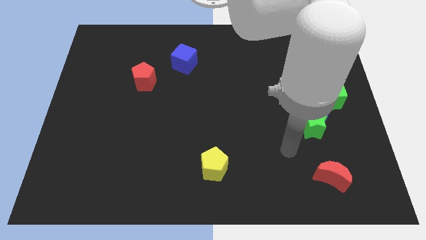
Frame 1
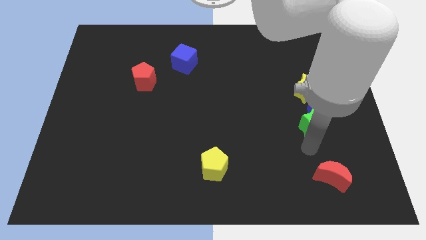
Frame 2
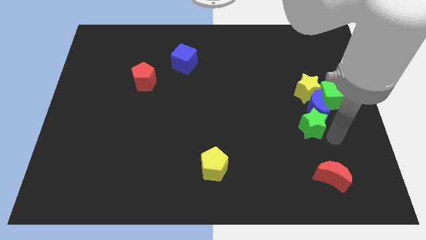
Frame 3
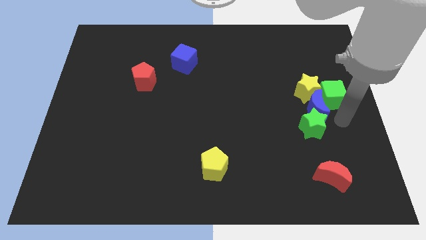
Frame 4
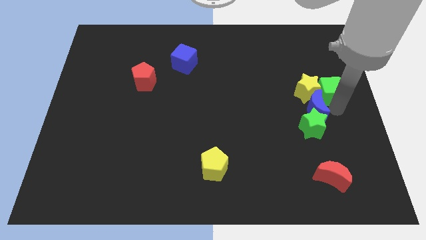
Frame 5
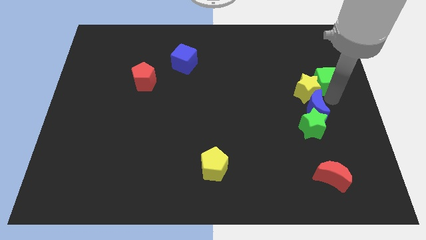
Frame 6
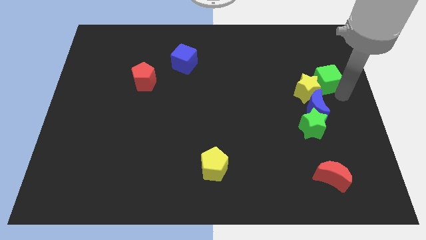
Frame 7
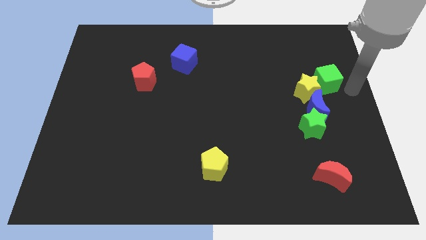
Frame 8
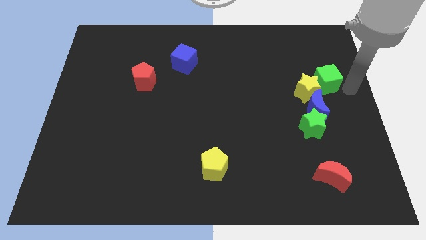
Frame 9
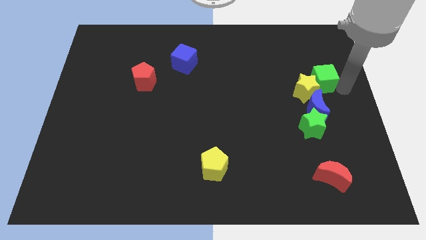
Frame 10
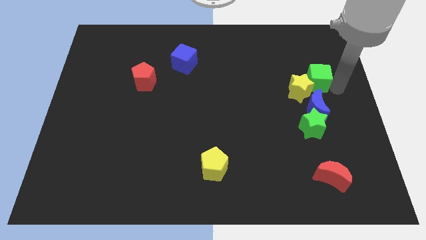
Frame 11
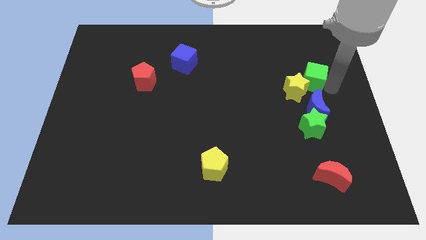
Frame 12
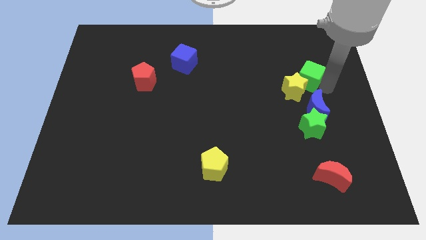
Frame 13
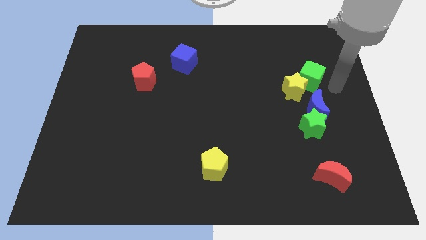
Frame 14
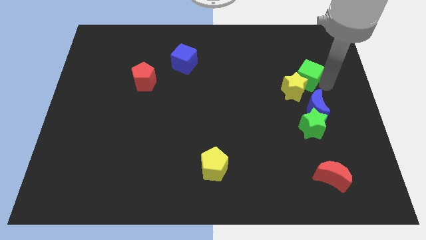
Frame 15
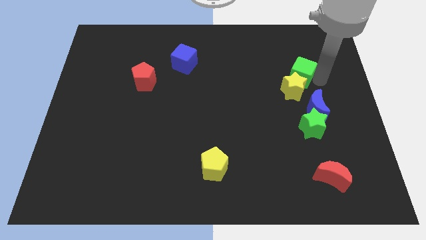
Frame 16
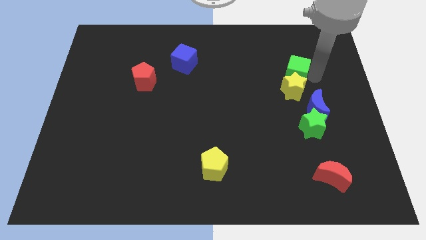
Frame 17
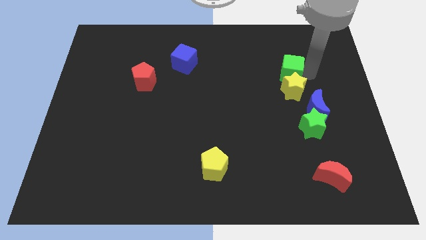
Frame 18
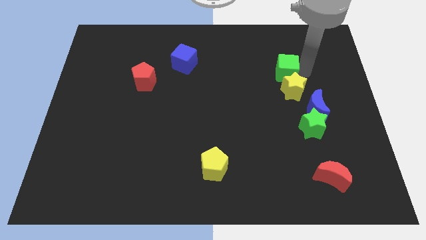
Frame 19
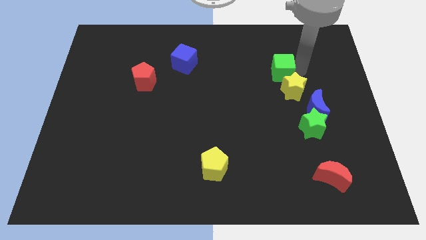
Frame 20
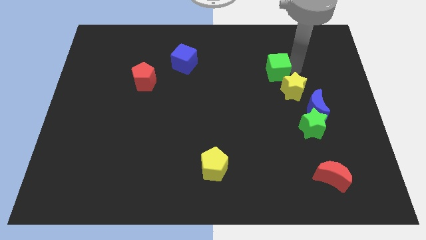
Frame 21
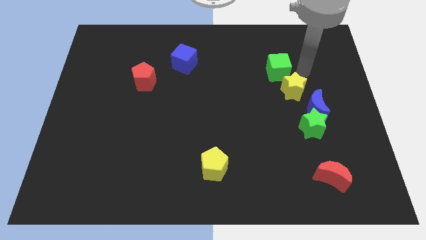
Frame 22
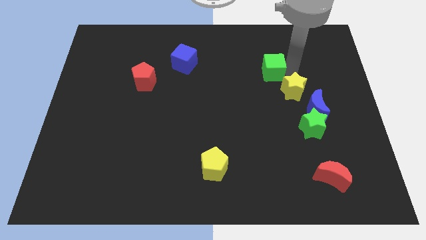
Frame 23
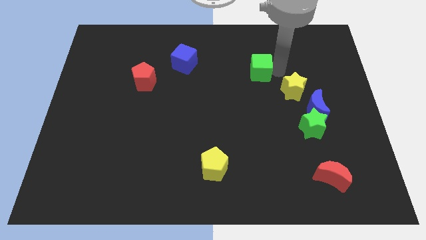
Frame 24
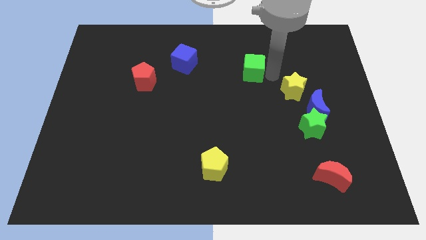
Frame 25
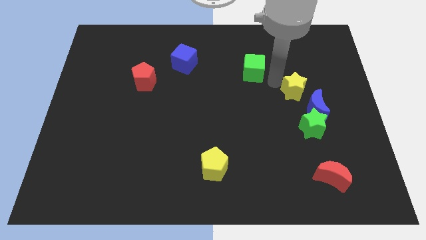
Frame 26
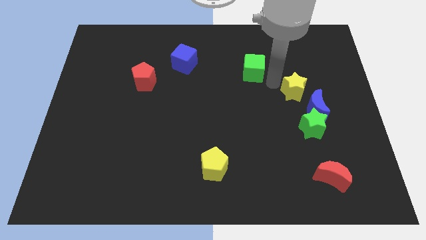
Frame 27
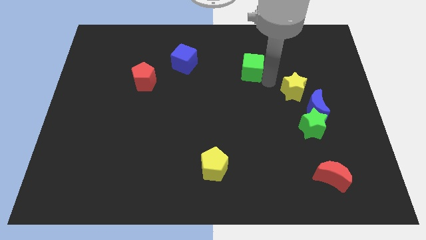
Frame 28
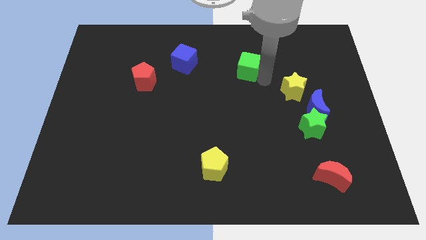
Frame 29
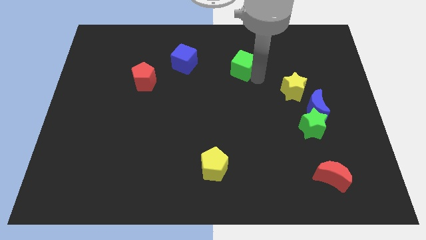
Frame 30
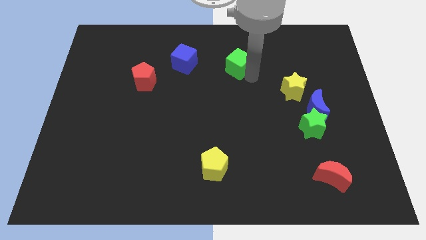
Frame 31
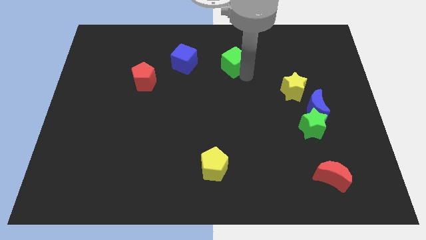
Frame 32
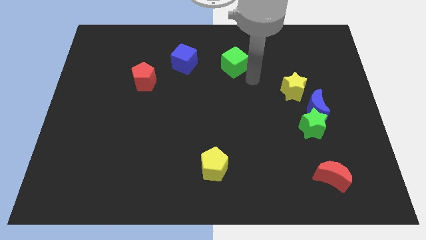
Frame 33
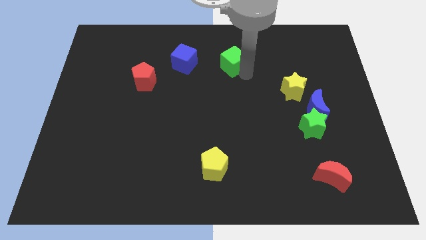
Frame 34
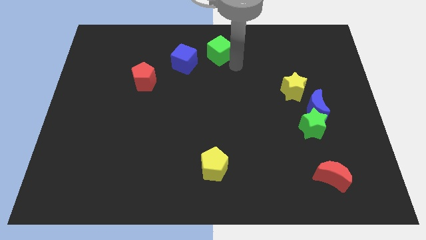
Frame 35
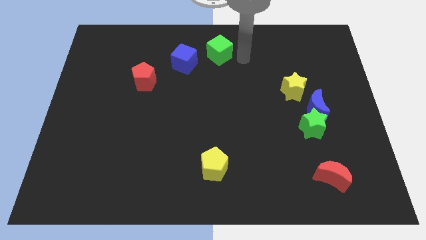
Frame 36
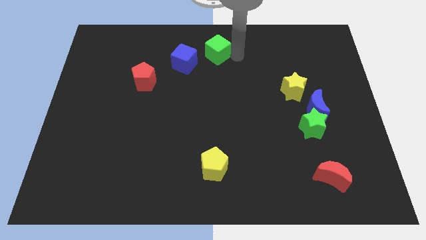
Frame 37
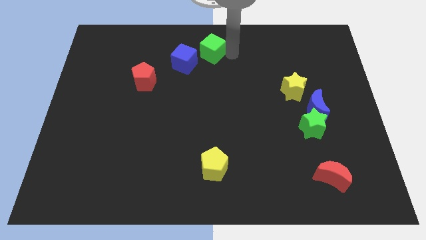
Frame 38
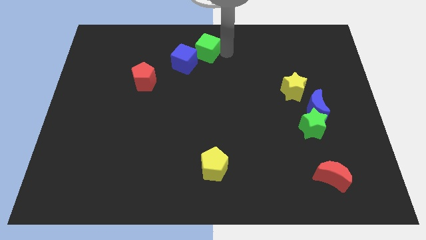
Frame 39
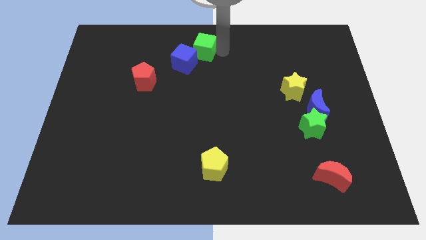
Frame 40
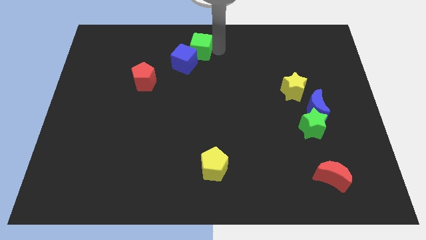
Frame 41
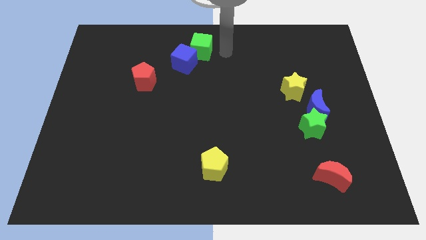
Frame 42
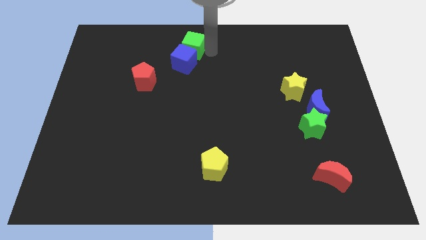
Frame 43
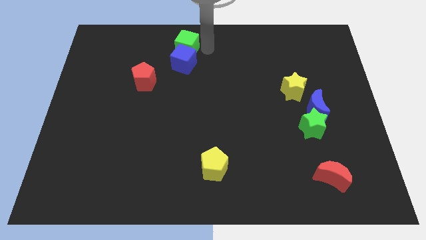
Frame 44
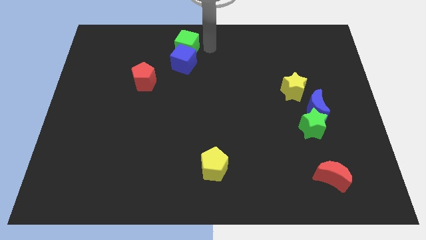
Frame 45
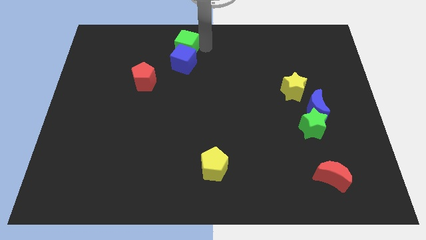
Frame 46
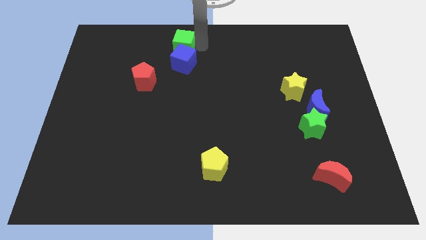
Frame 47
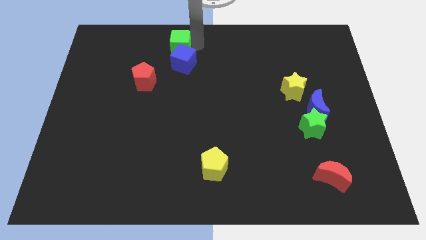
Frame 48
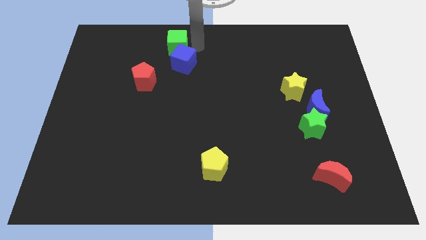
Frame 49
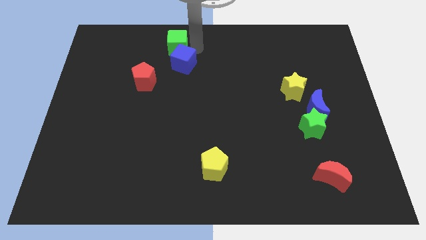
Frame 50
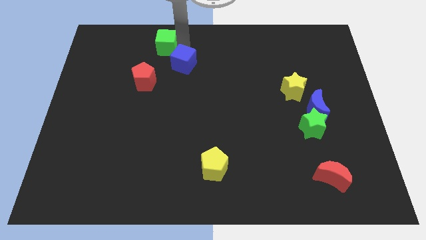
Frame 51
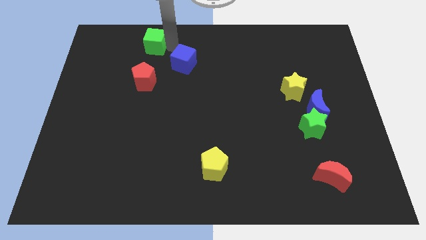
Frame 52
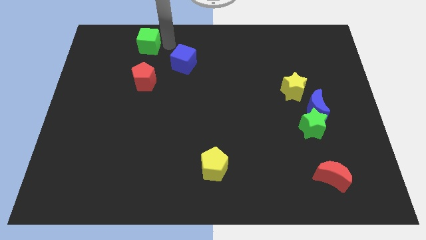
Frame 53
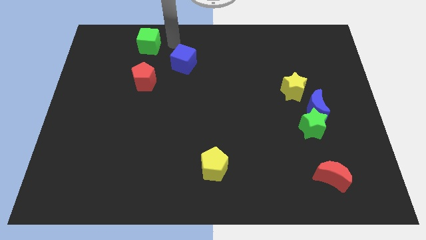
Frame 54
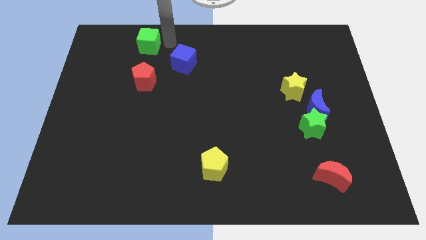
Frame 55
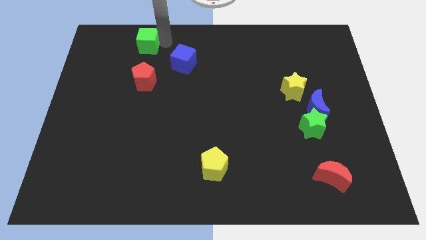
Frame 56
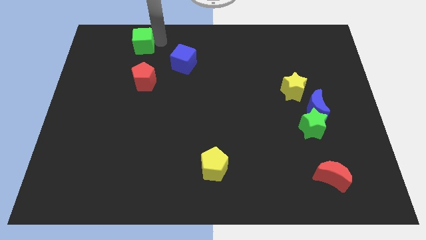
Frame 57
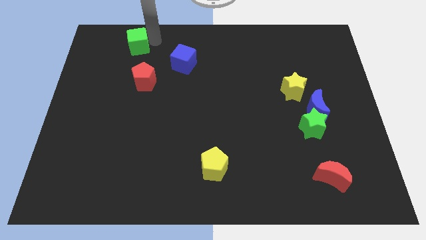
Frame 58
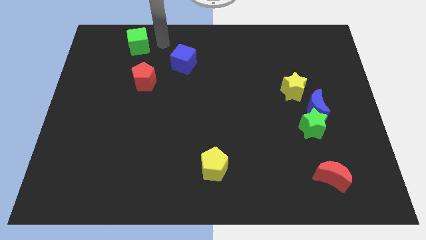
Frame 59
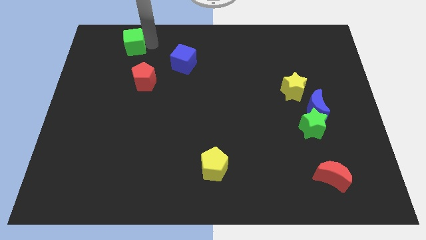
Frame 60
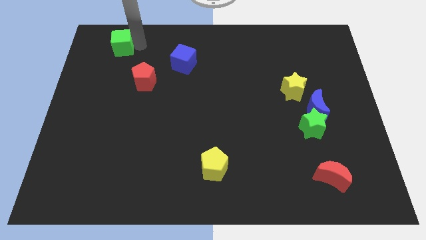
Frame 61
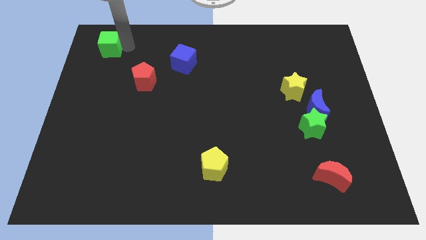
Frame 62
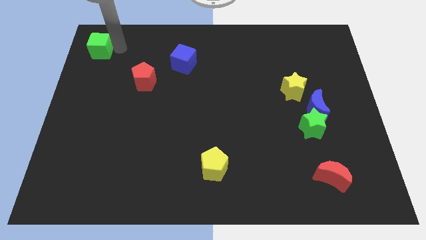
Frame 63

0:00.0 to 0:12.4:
slide the green cube to the top left corner

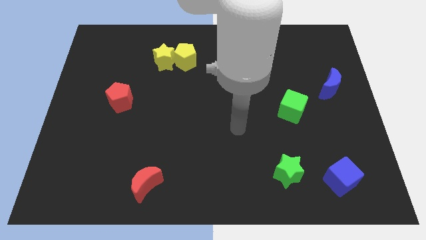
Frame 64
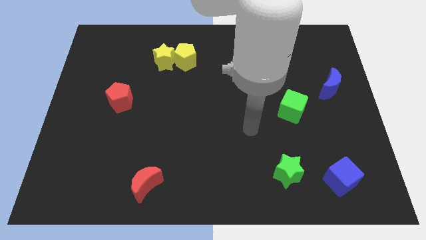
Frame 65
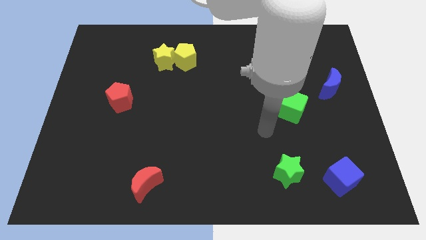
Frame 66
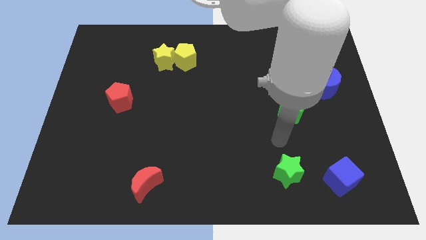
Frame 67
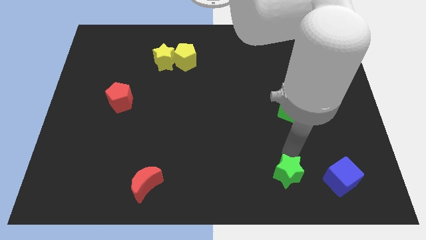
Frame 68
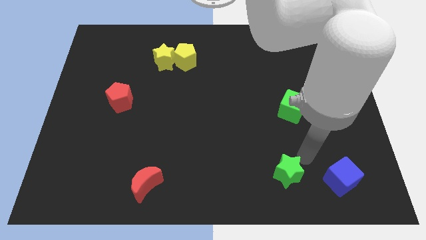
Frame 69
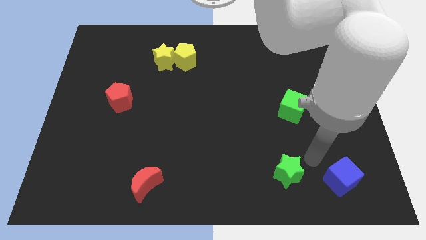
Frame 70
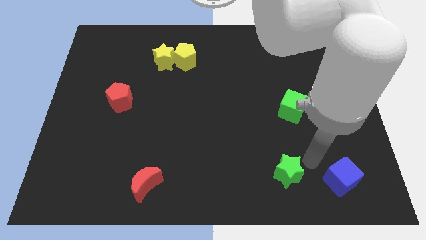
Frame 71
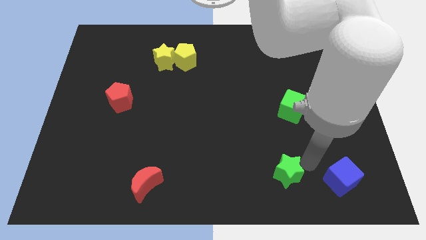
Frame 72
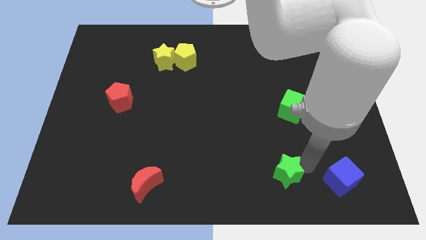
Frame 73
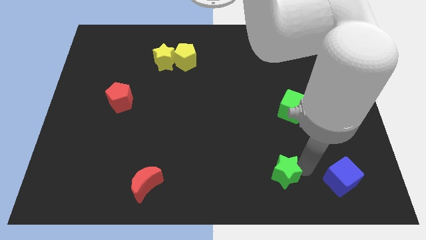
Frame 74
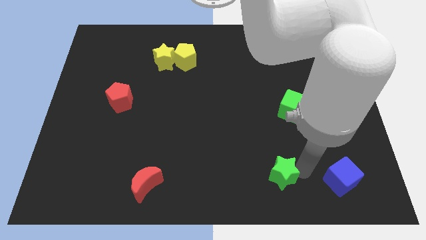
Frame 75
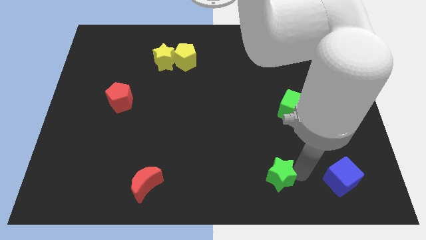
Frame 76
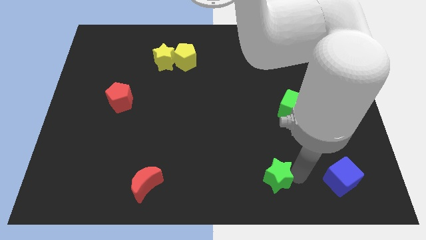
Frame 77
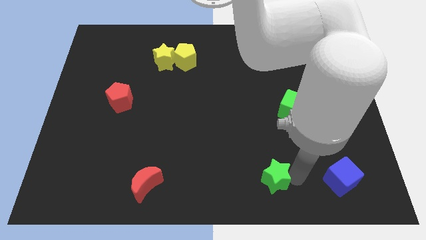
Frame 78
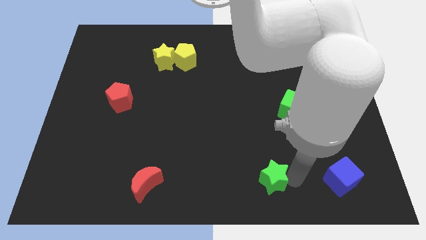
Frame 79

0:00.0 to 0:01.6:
slide the green star to the bottom side
